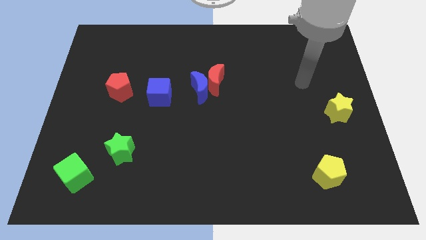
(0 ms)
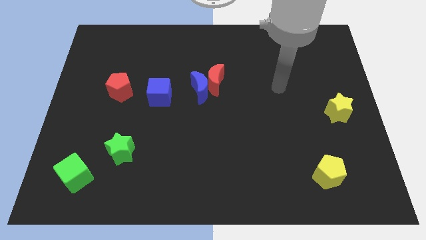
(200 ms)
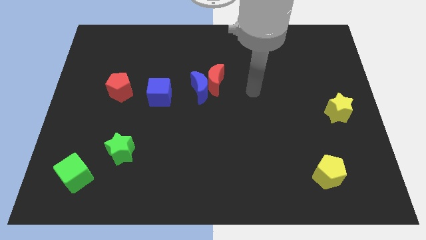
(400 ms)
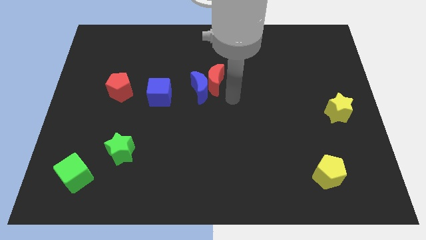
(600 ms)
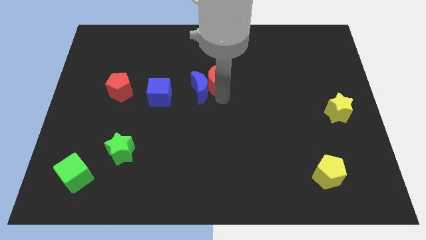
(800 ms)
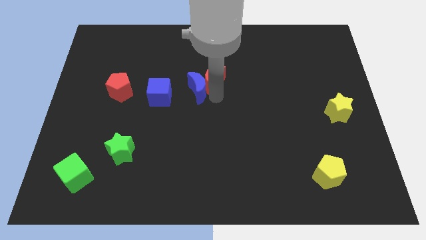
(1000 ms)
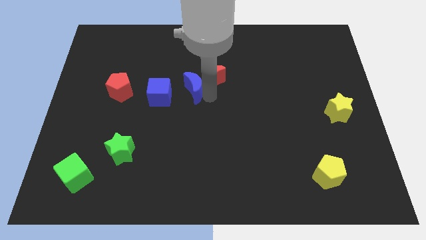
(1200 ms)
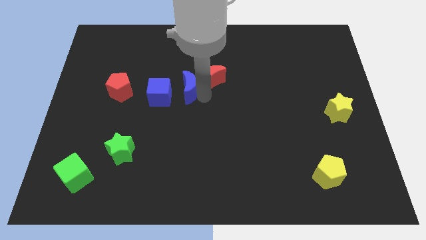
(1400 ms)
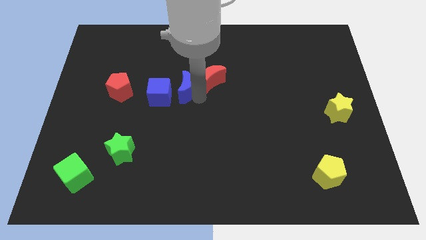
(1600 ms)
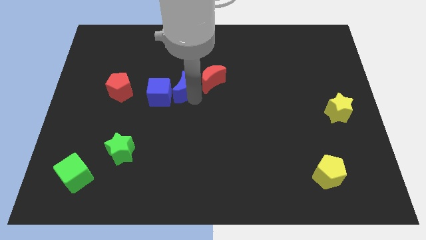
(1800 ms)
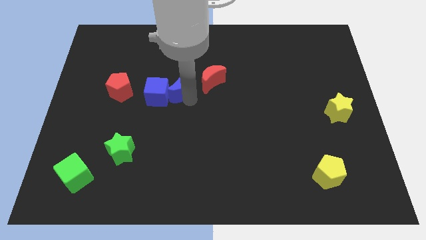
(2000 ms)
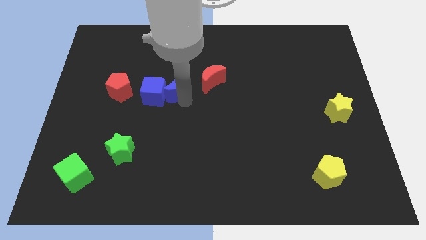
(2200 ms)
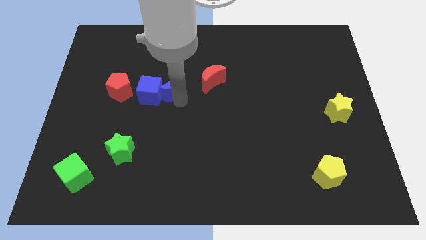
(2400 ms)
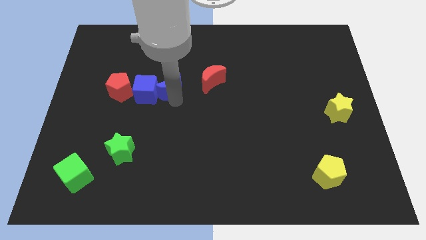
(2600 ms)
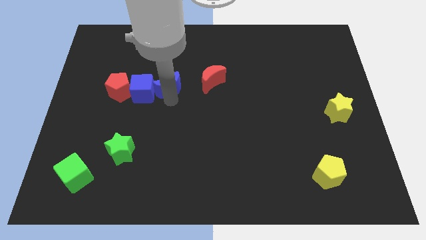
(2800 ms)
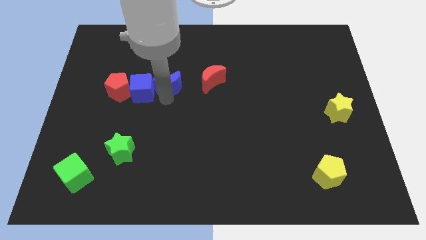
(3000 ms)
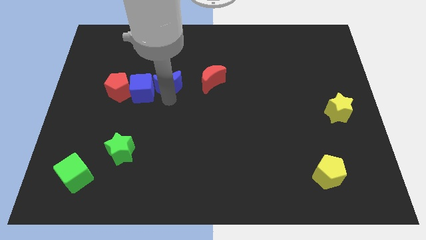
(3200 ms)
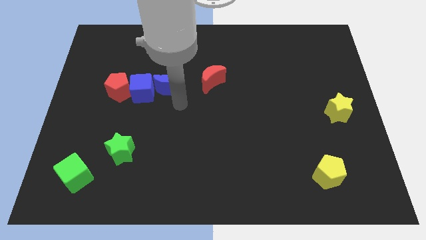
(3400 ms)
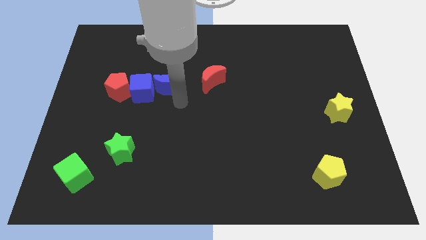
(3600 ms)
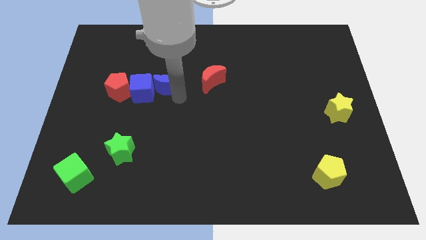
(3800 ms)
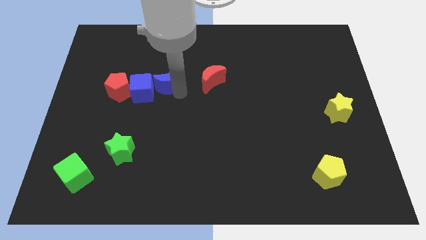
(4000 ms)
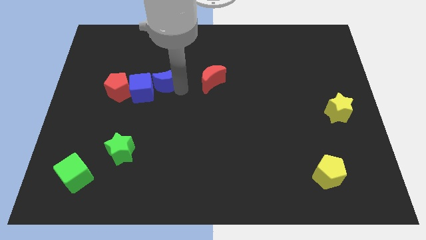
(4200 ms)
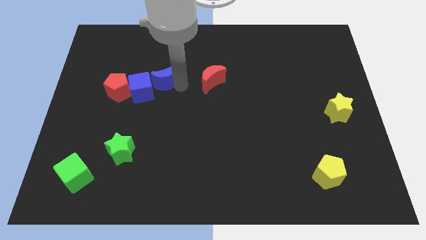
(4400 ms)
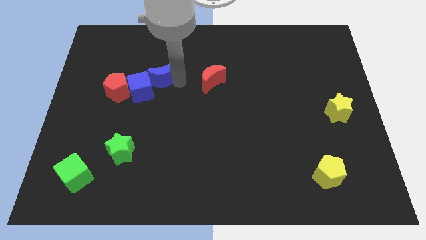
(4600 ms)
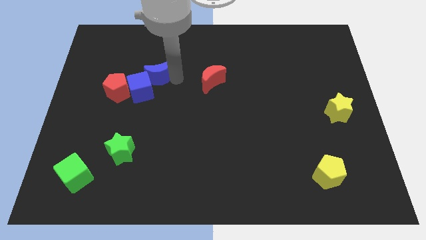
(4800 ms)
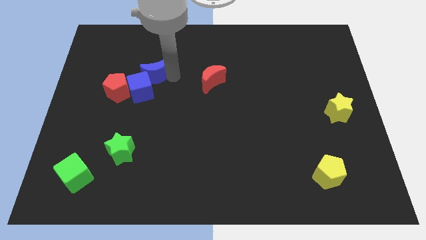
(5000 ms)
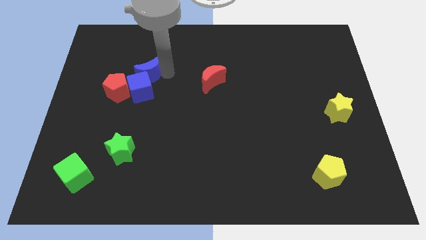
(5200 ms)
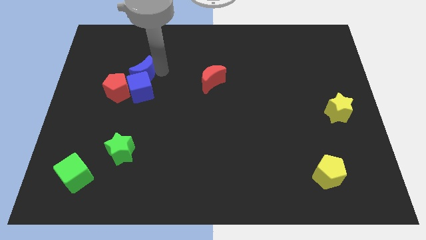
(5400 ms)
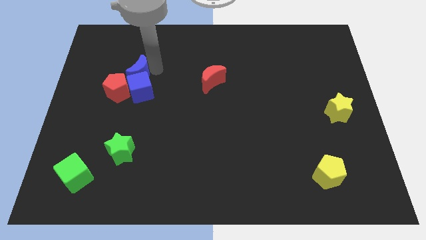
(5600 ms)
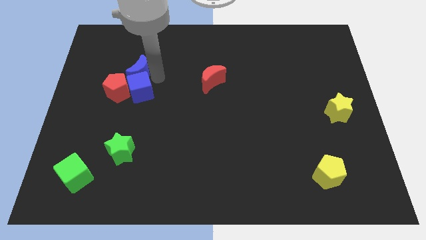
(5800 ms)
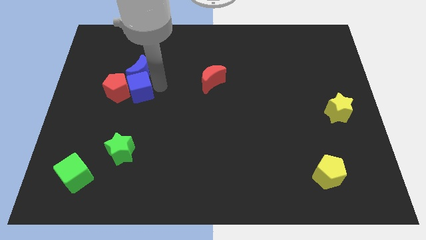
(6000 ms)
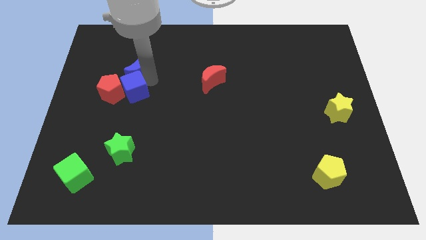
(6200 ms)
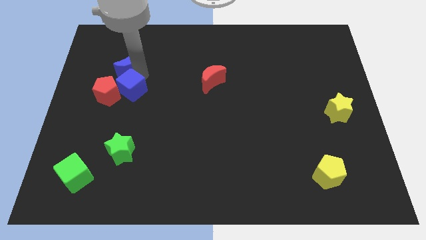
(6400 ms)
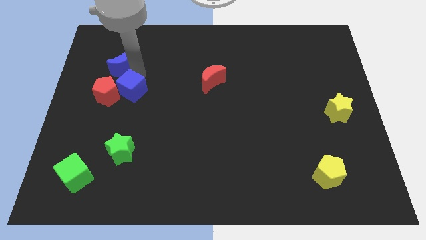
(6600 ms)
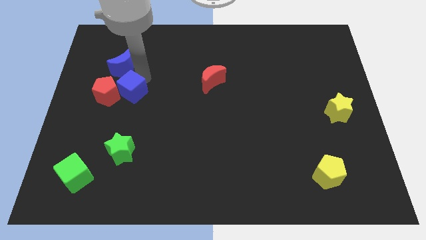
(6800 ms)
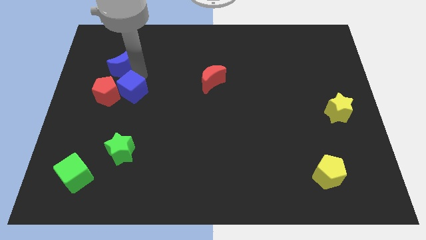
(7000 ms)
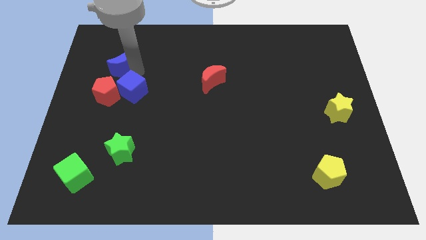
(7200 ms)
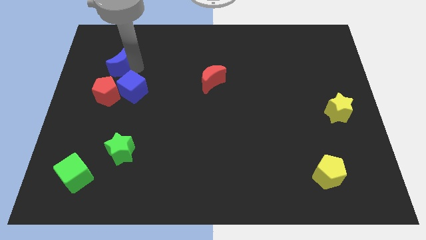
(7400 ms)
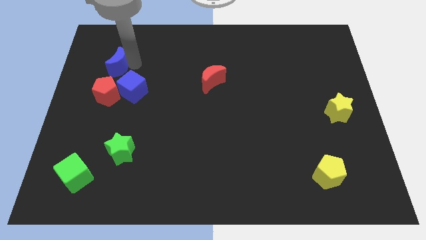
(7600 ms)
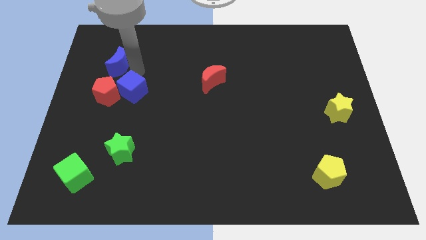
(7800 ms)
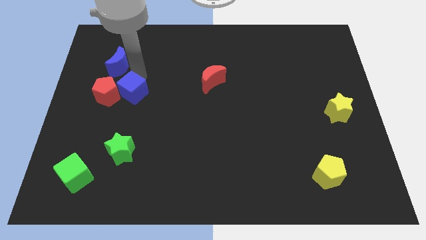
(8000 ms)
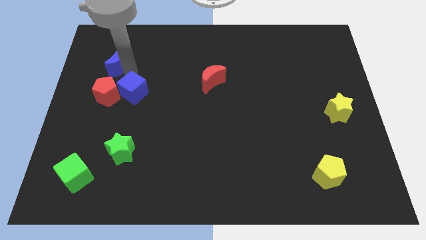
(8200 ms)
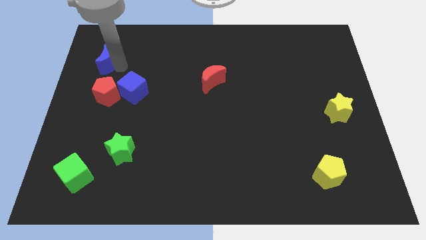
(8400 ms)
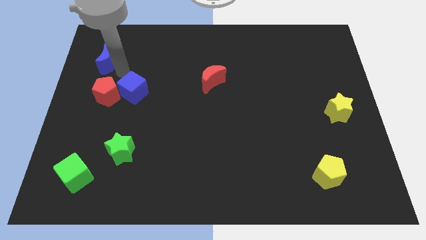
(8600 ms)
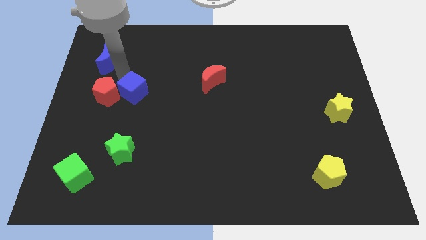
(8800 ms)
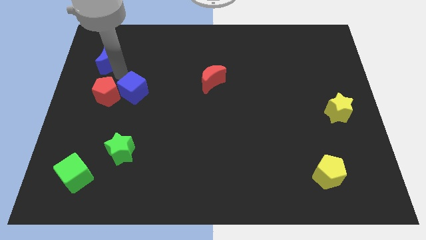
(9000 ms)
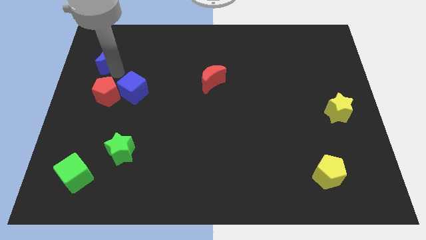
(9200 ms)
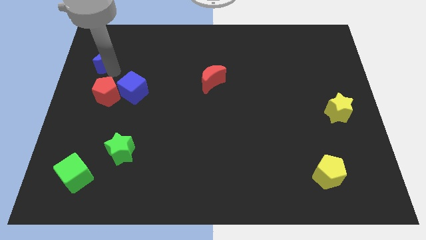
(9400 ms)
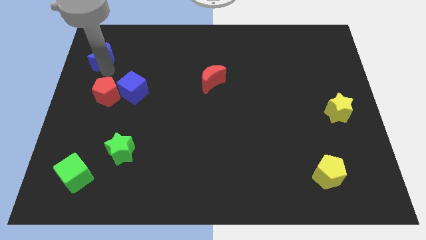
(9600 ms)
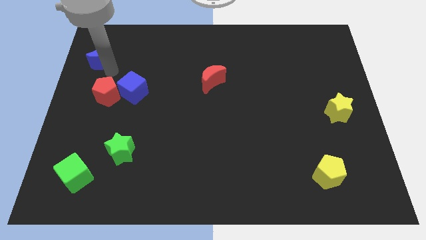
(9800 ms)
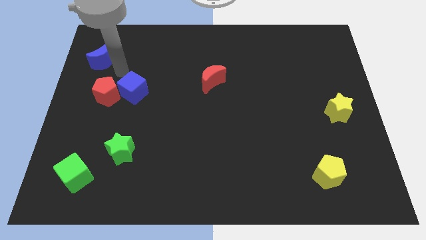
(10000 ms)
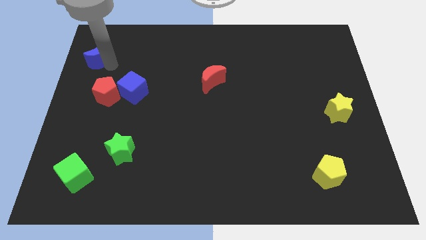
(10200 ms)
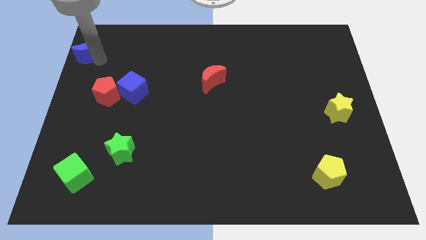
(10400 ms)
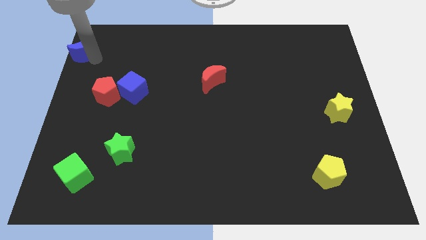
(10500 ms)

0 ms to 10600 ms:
move the blue moon to the upper left corner
